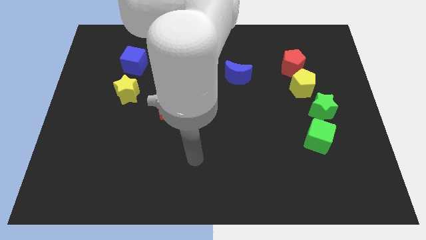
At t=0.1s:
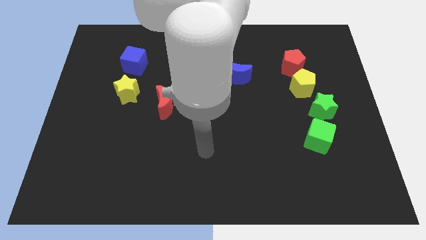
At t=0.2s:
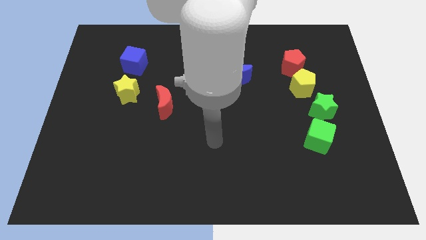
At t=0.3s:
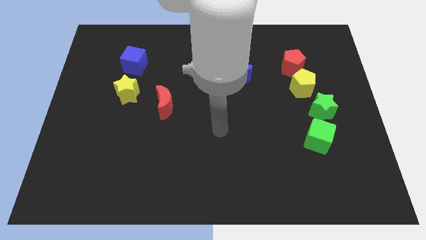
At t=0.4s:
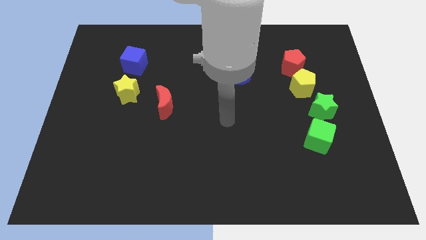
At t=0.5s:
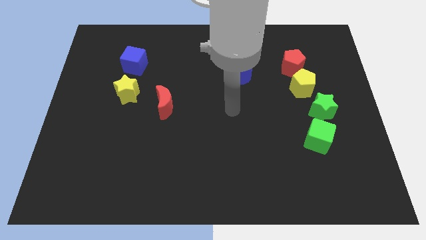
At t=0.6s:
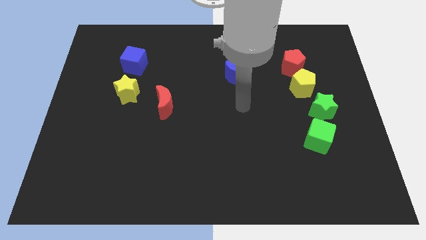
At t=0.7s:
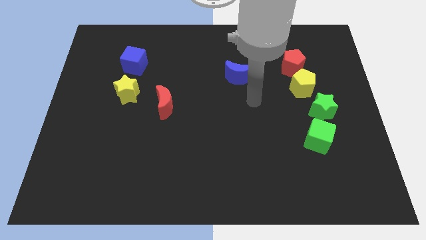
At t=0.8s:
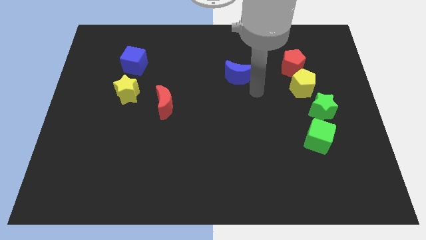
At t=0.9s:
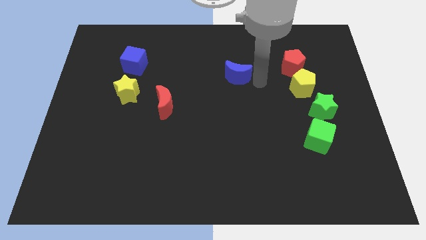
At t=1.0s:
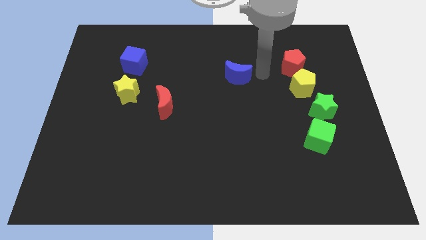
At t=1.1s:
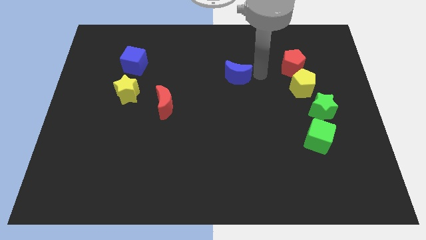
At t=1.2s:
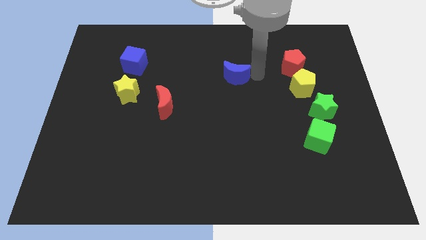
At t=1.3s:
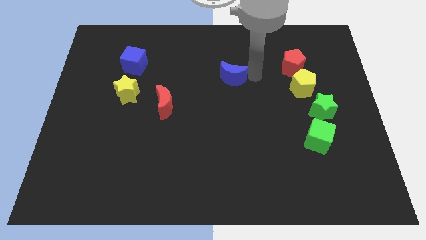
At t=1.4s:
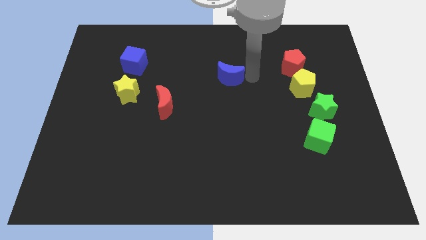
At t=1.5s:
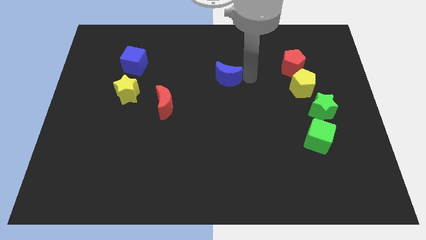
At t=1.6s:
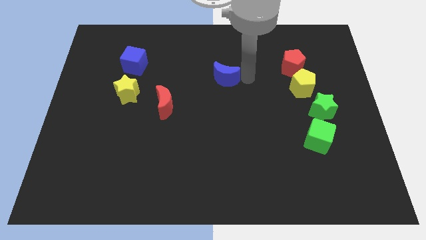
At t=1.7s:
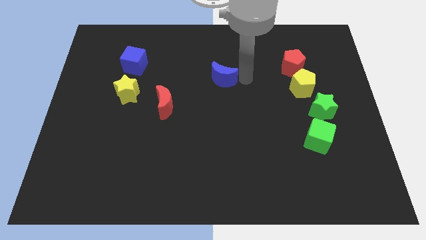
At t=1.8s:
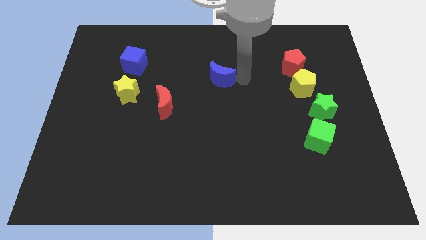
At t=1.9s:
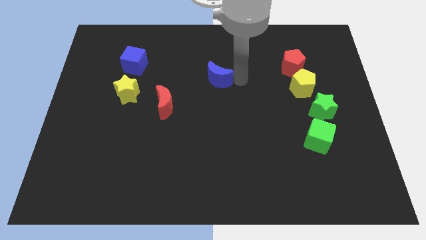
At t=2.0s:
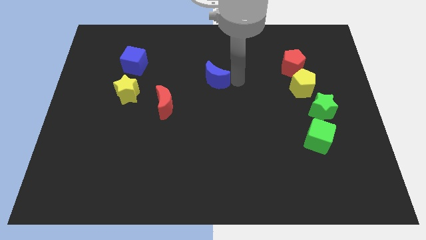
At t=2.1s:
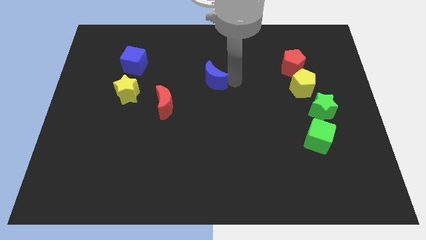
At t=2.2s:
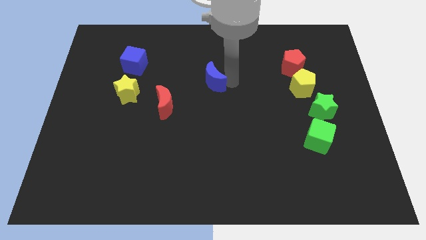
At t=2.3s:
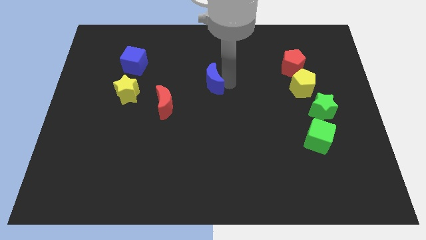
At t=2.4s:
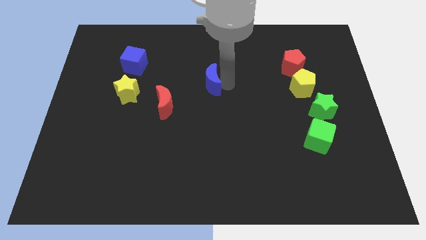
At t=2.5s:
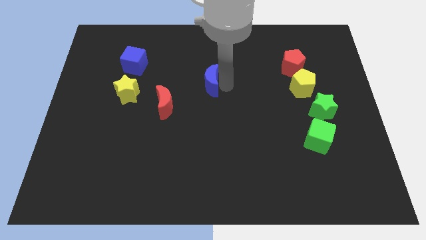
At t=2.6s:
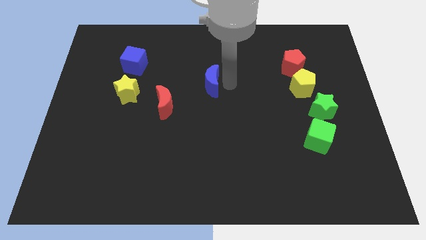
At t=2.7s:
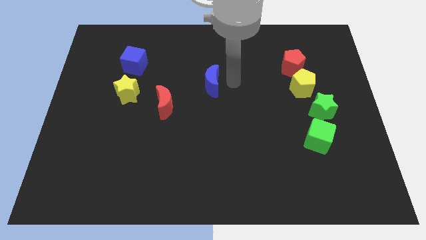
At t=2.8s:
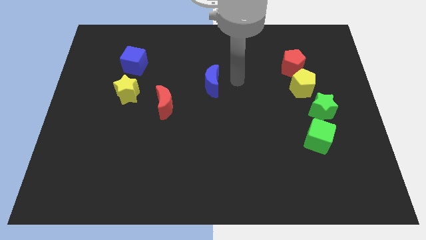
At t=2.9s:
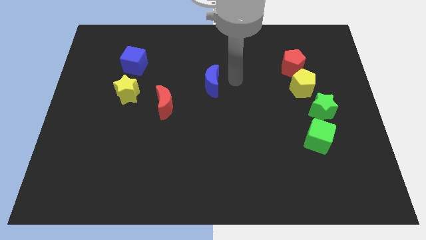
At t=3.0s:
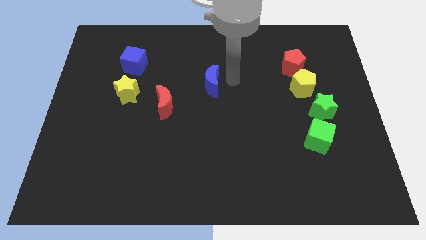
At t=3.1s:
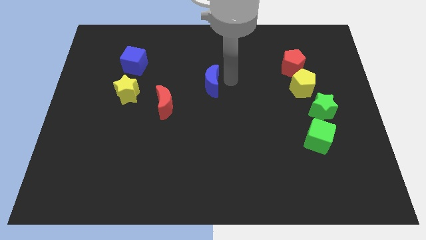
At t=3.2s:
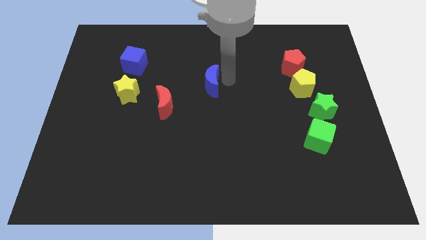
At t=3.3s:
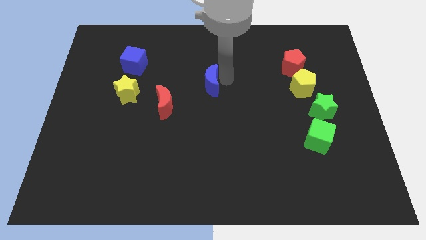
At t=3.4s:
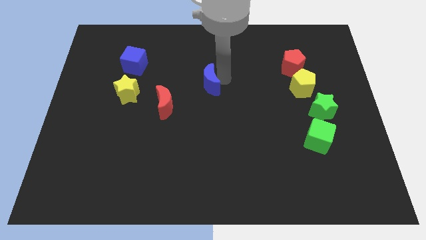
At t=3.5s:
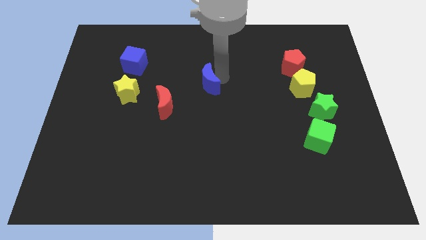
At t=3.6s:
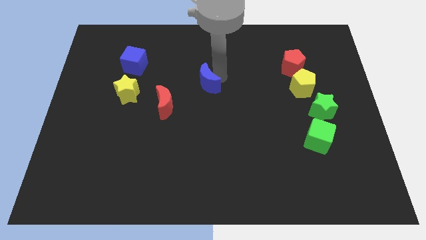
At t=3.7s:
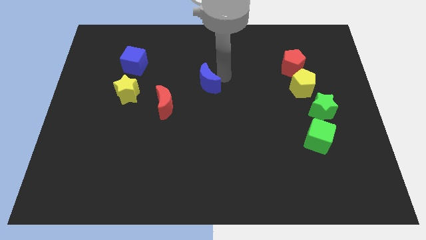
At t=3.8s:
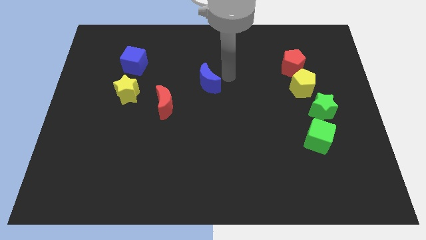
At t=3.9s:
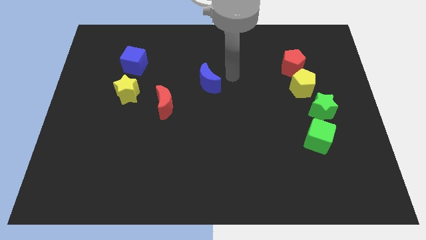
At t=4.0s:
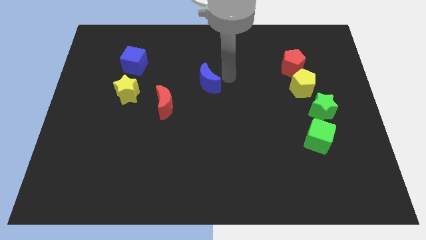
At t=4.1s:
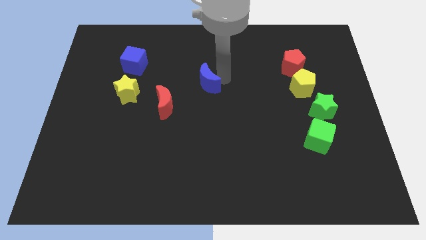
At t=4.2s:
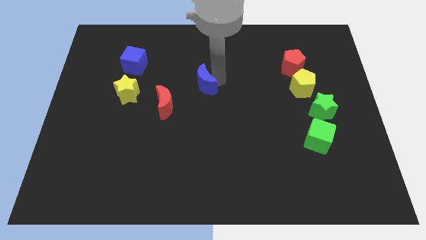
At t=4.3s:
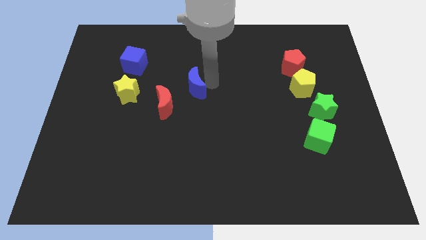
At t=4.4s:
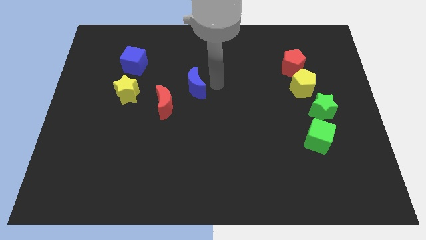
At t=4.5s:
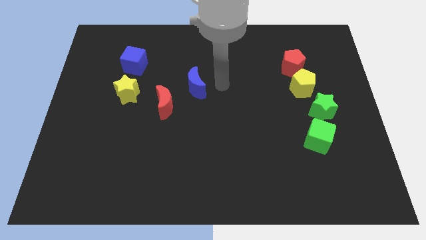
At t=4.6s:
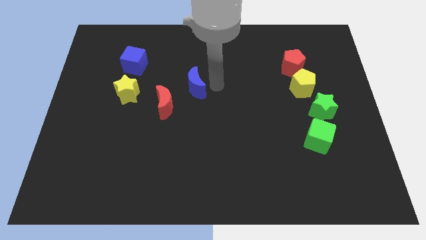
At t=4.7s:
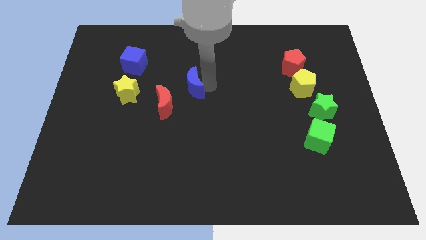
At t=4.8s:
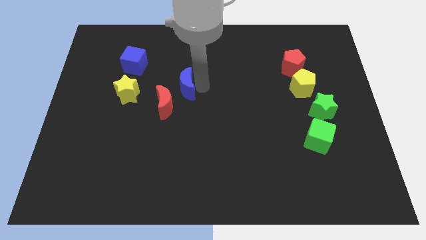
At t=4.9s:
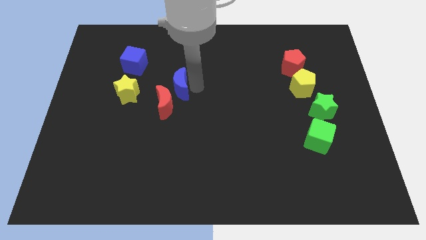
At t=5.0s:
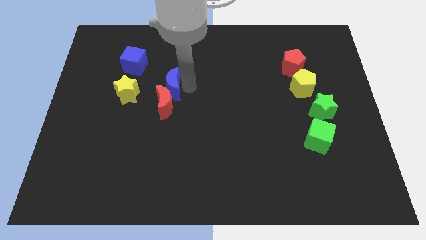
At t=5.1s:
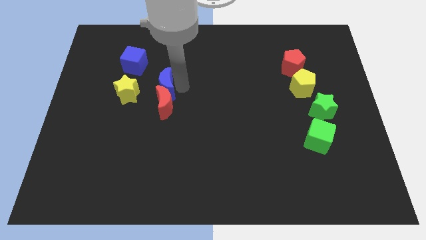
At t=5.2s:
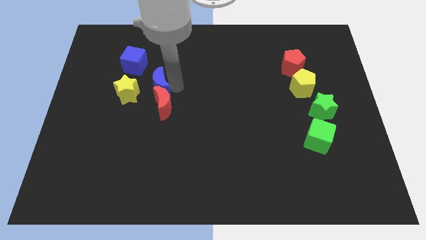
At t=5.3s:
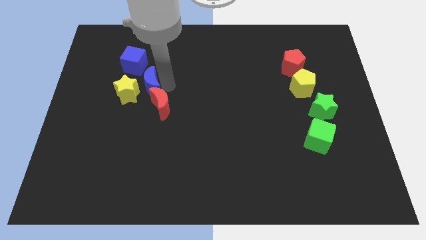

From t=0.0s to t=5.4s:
move the blue moon to the yellow star

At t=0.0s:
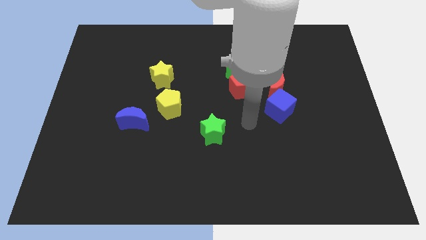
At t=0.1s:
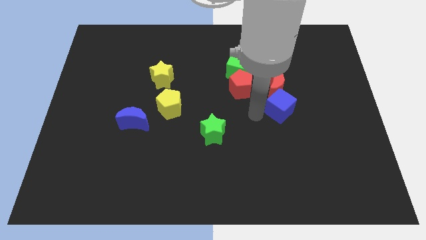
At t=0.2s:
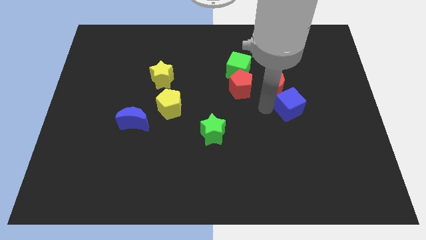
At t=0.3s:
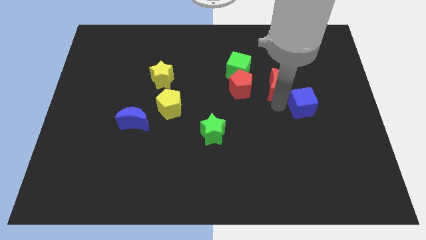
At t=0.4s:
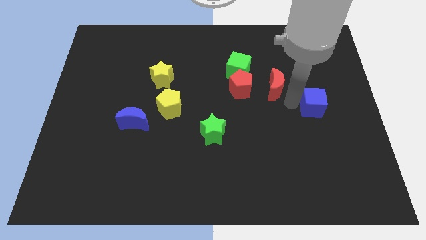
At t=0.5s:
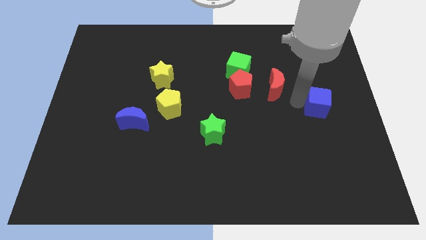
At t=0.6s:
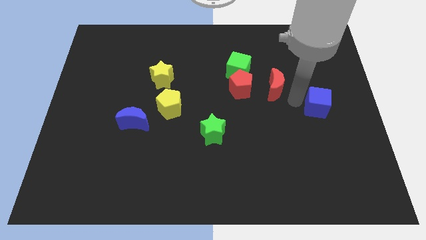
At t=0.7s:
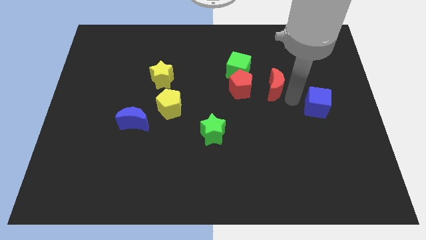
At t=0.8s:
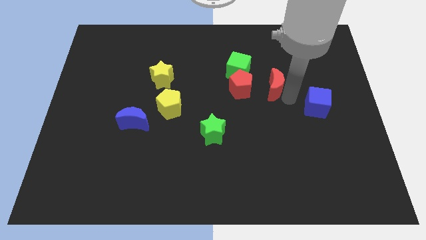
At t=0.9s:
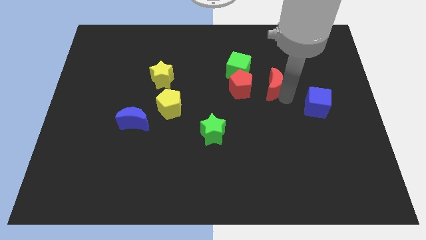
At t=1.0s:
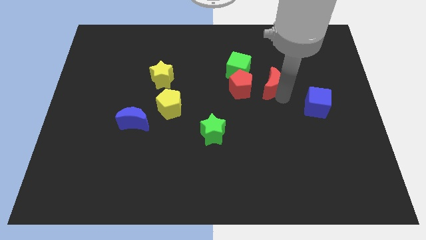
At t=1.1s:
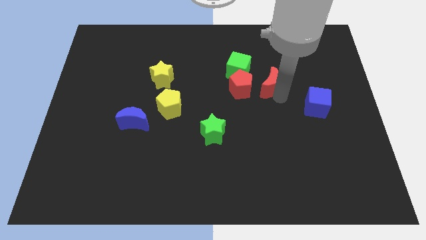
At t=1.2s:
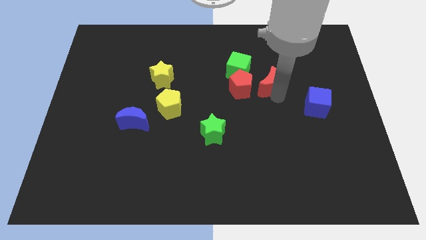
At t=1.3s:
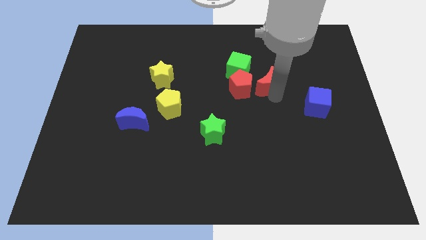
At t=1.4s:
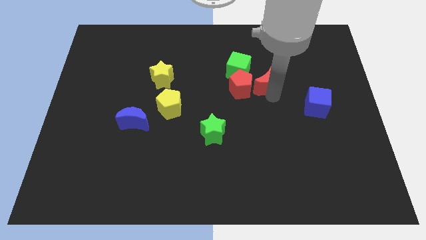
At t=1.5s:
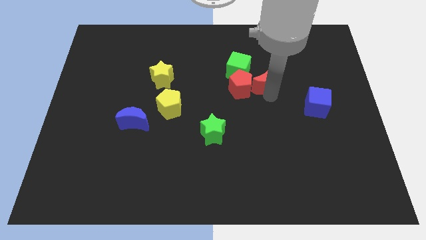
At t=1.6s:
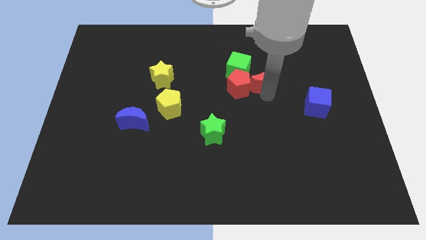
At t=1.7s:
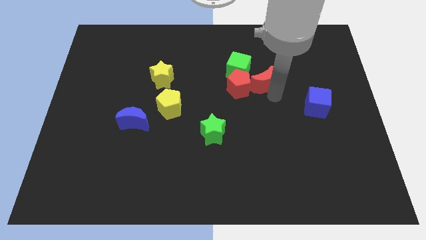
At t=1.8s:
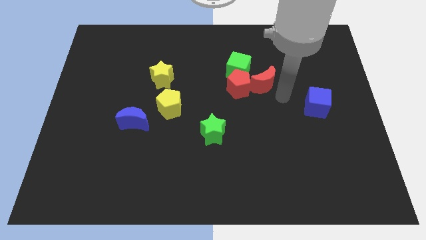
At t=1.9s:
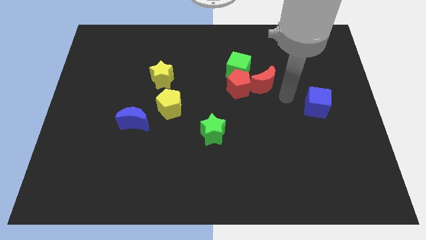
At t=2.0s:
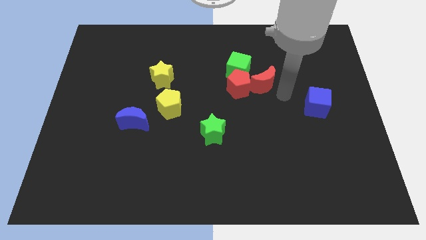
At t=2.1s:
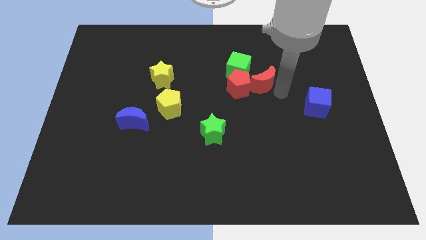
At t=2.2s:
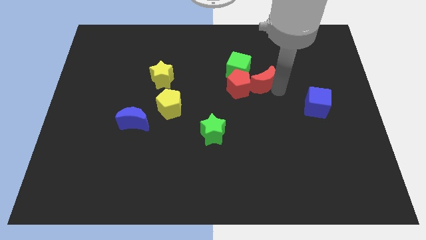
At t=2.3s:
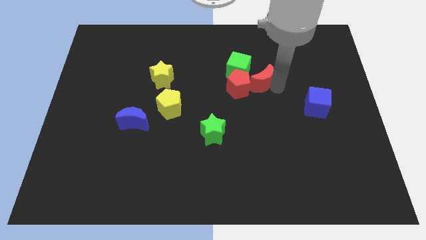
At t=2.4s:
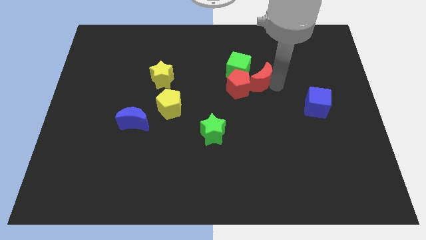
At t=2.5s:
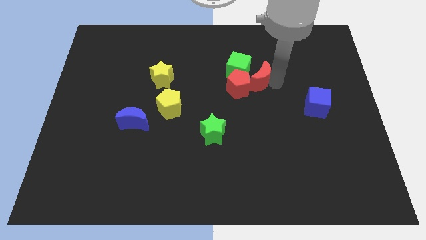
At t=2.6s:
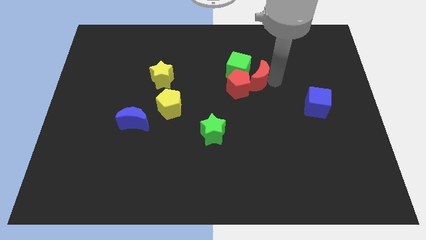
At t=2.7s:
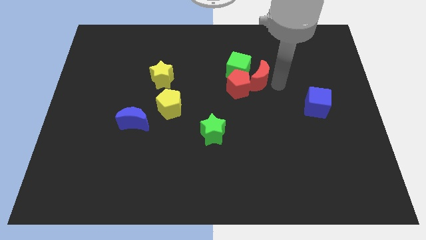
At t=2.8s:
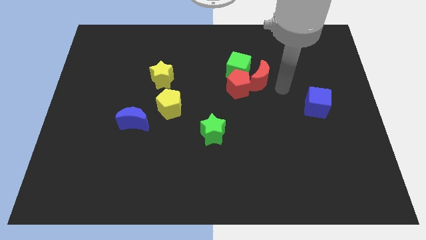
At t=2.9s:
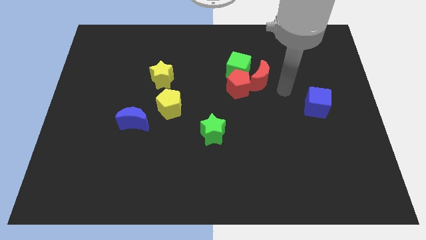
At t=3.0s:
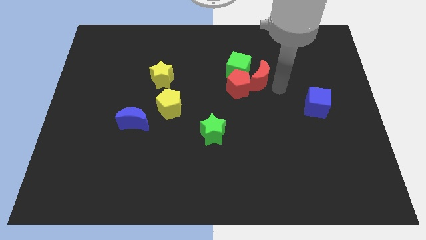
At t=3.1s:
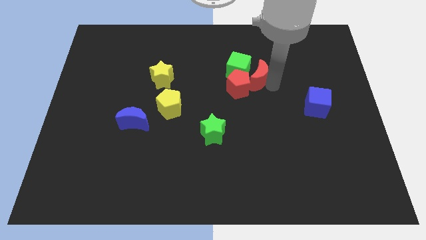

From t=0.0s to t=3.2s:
push the red moon close to the green cube
